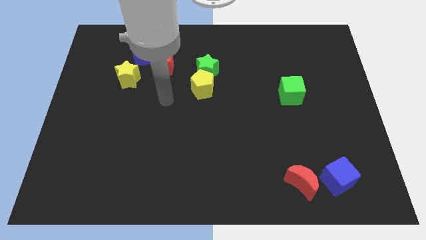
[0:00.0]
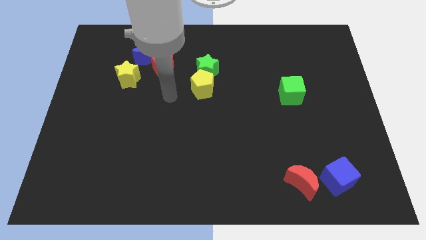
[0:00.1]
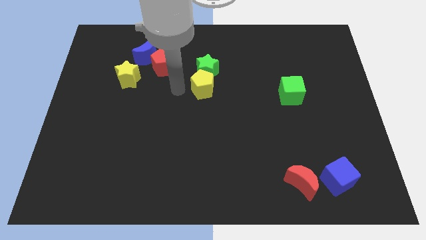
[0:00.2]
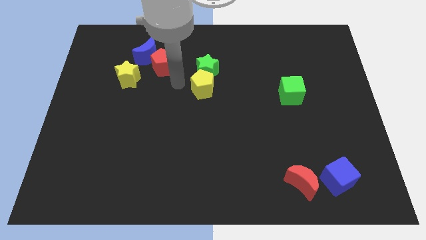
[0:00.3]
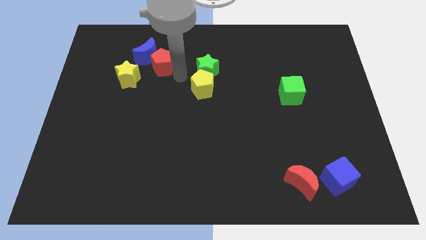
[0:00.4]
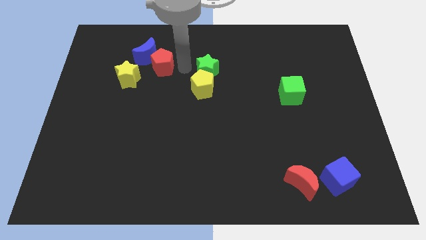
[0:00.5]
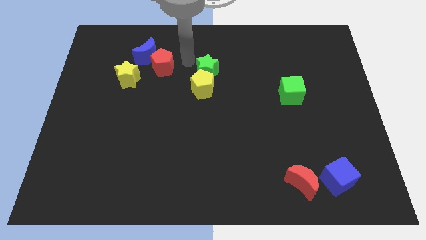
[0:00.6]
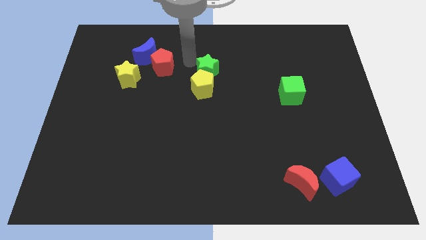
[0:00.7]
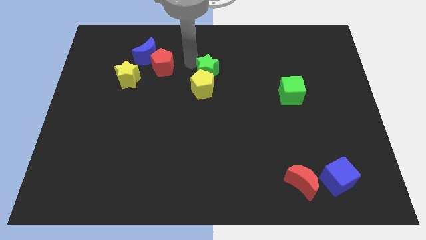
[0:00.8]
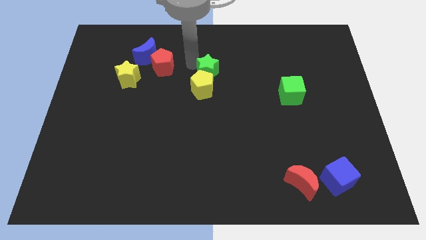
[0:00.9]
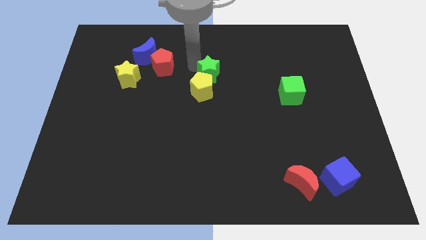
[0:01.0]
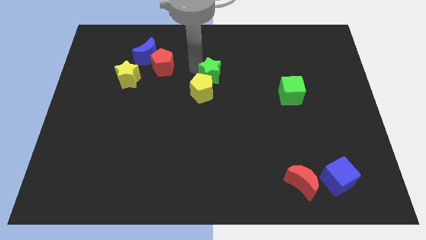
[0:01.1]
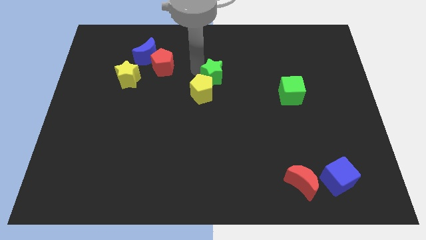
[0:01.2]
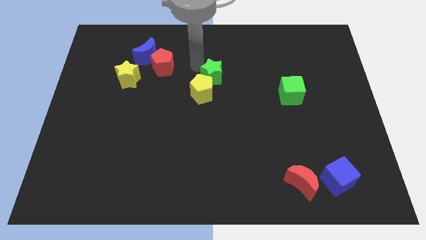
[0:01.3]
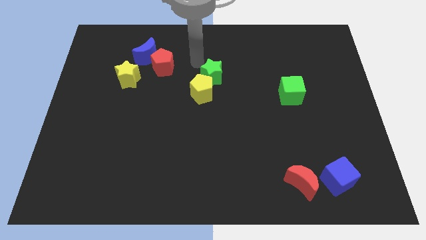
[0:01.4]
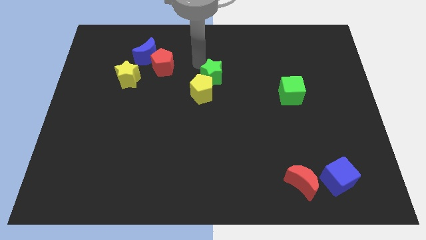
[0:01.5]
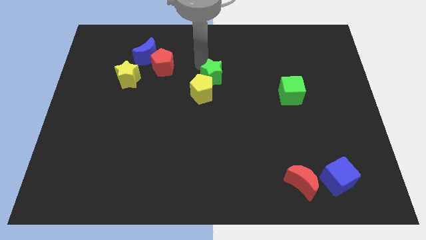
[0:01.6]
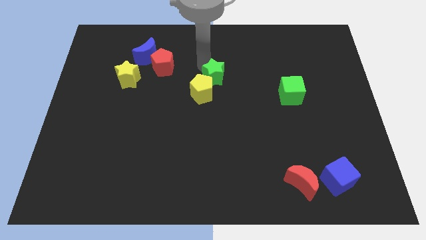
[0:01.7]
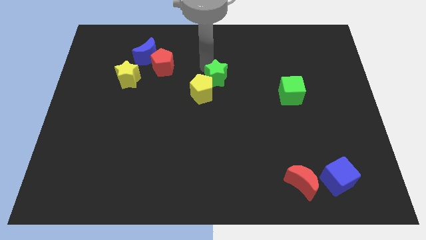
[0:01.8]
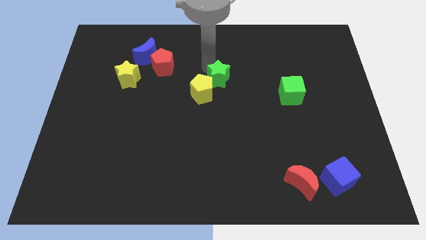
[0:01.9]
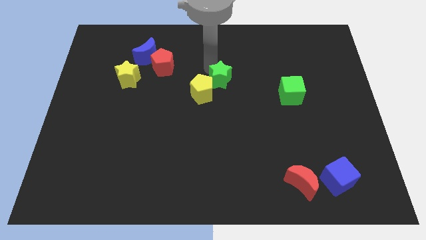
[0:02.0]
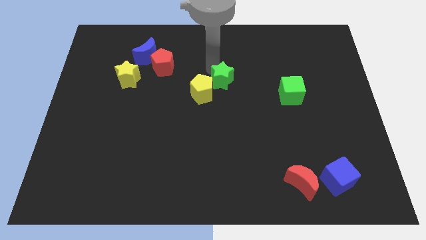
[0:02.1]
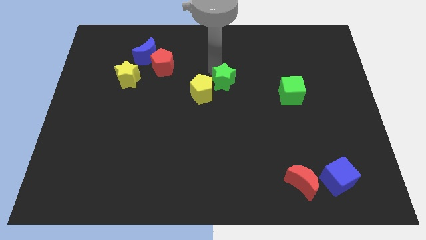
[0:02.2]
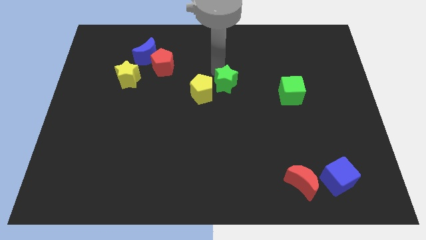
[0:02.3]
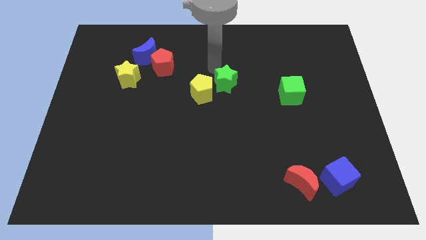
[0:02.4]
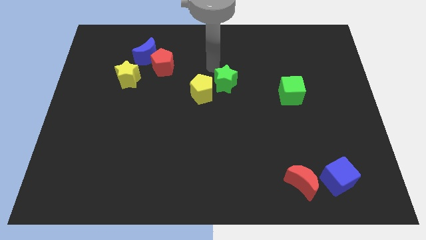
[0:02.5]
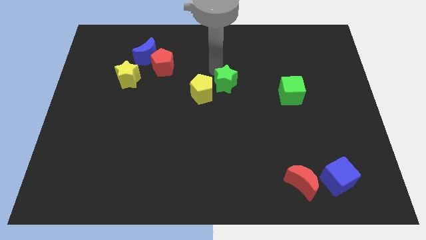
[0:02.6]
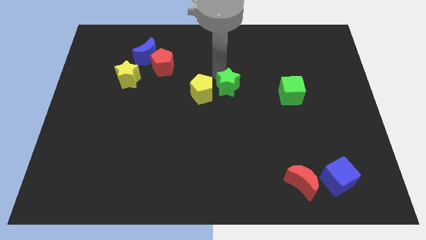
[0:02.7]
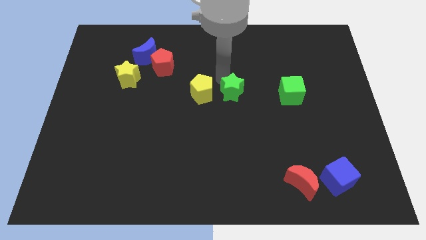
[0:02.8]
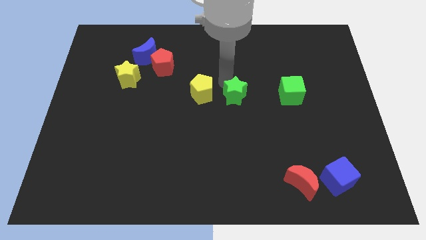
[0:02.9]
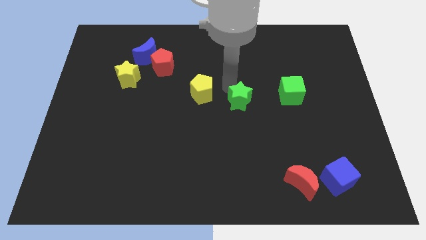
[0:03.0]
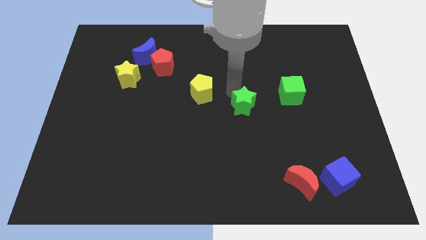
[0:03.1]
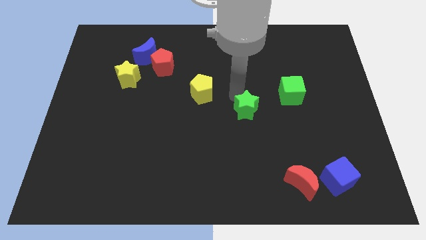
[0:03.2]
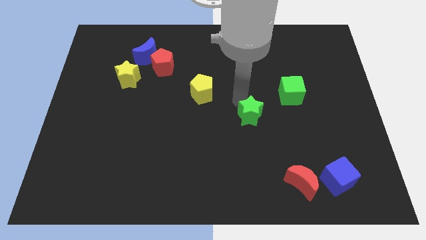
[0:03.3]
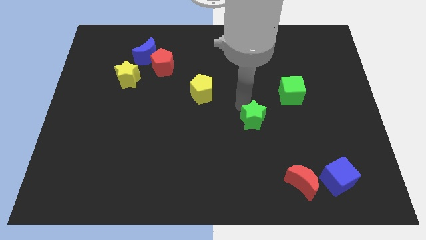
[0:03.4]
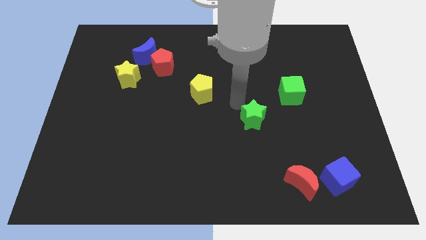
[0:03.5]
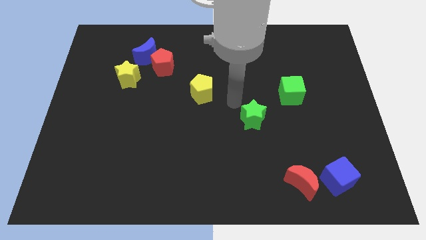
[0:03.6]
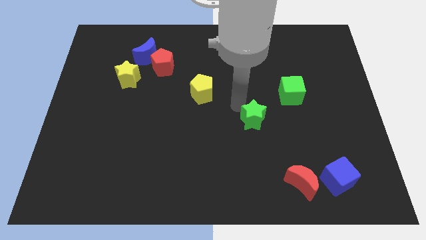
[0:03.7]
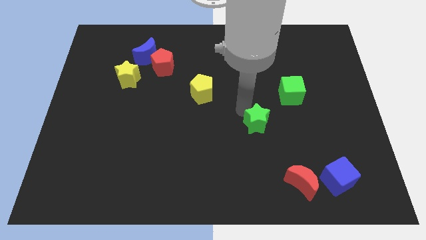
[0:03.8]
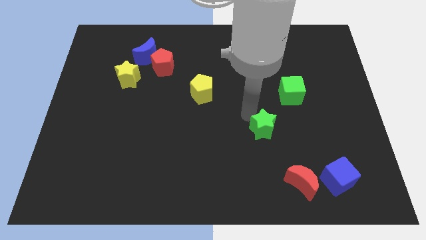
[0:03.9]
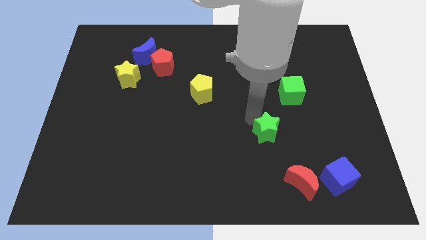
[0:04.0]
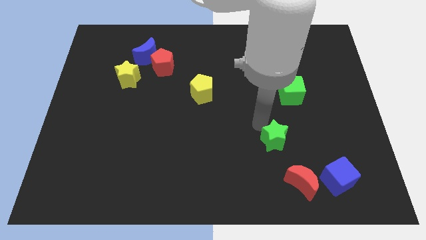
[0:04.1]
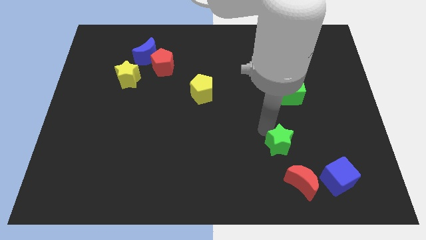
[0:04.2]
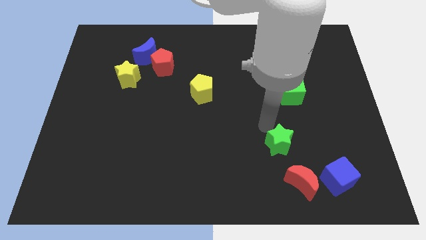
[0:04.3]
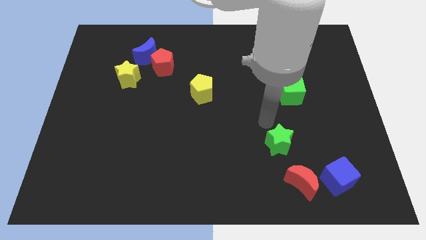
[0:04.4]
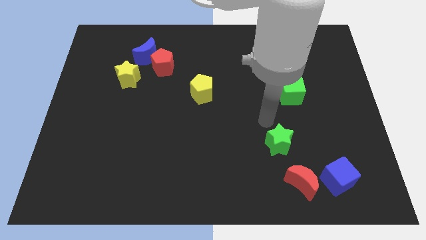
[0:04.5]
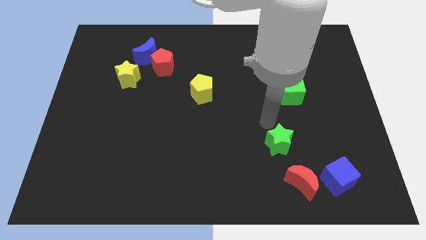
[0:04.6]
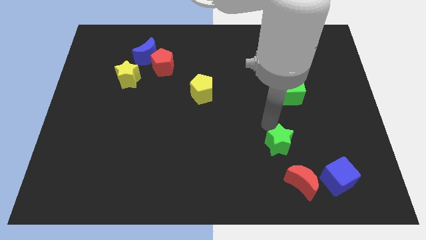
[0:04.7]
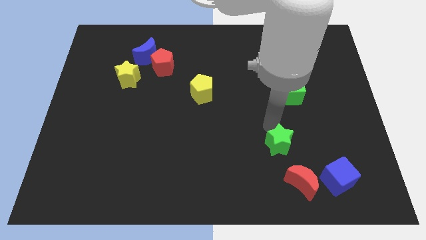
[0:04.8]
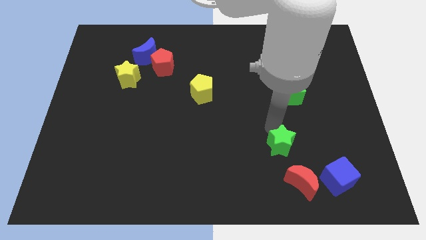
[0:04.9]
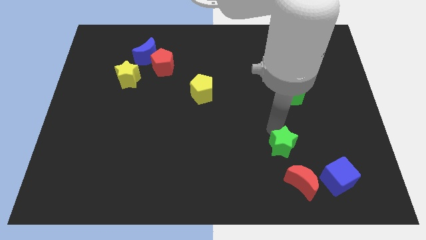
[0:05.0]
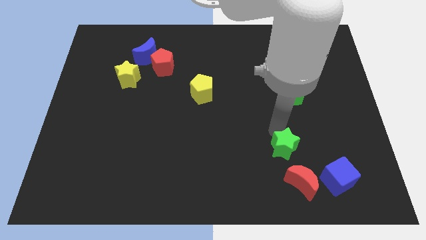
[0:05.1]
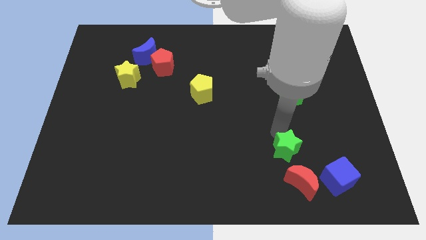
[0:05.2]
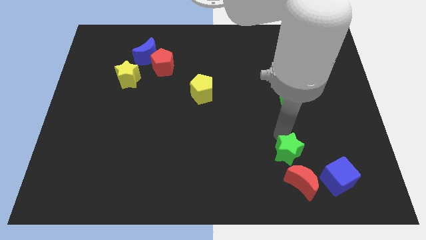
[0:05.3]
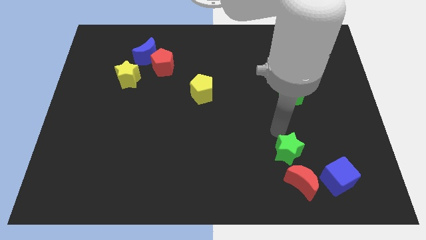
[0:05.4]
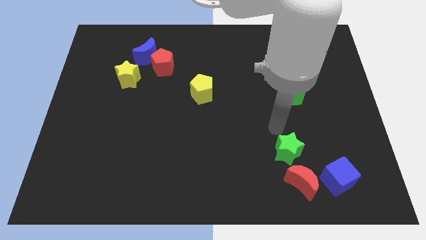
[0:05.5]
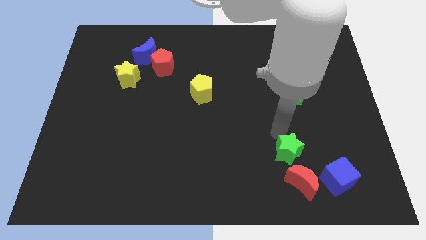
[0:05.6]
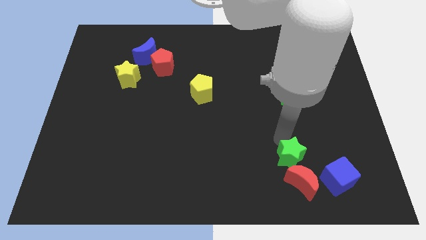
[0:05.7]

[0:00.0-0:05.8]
put the green star close to the red moon

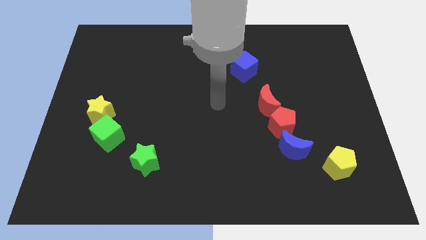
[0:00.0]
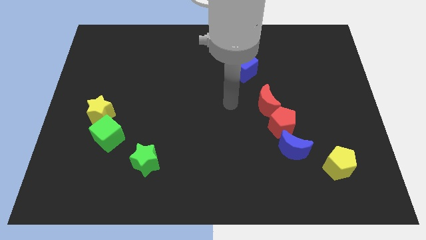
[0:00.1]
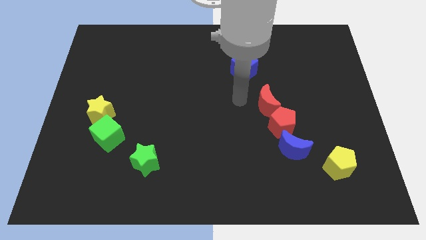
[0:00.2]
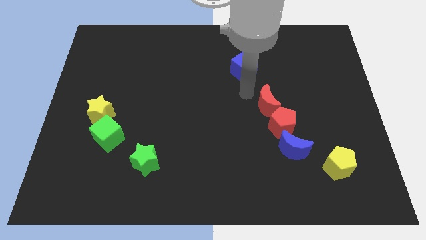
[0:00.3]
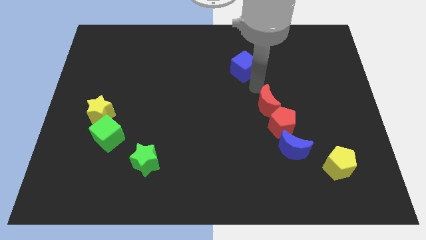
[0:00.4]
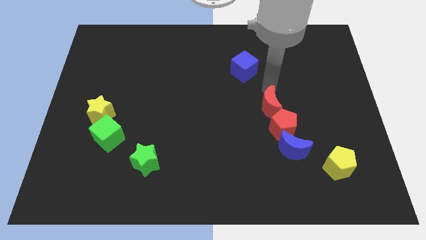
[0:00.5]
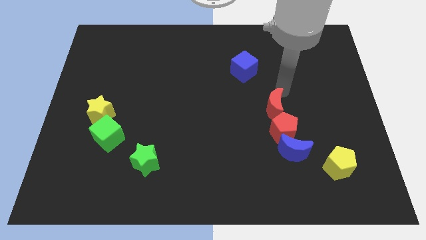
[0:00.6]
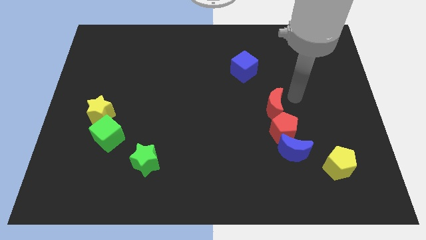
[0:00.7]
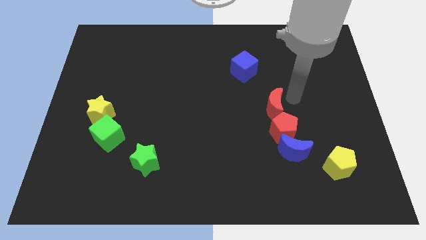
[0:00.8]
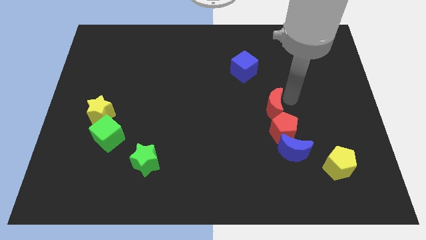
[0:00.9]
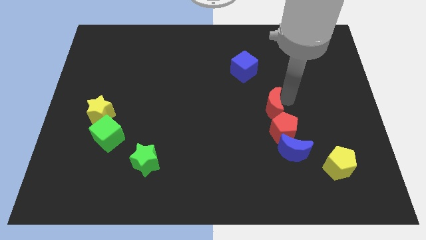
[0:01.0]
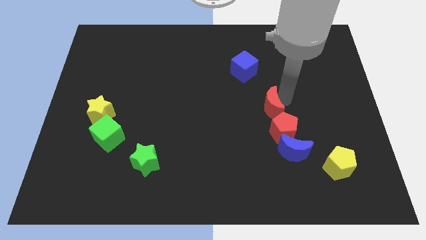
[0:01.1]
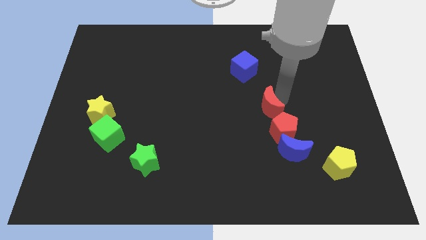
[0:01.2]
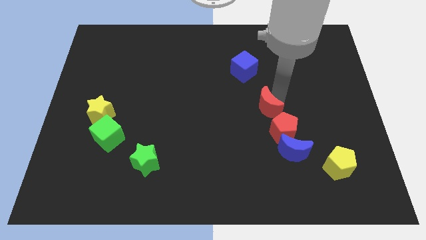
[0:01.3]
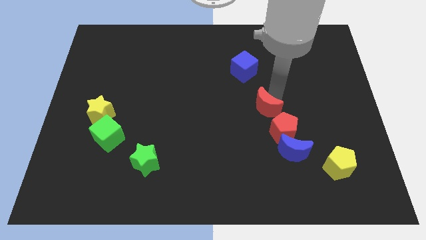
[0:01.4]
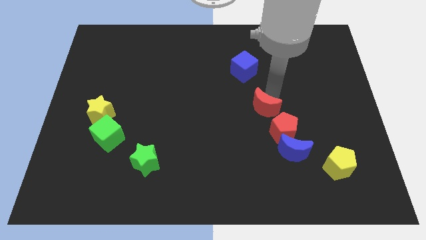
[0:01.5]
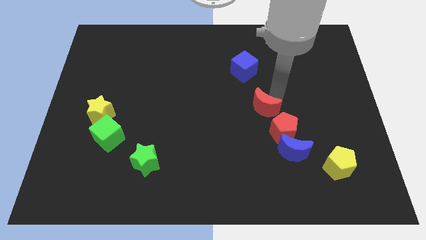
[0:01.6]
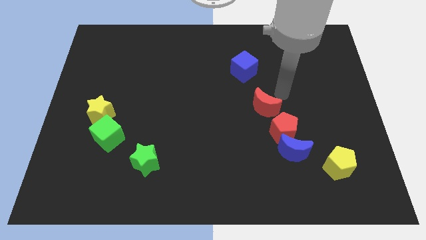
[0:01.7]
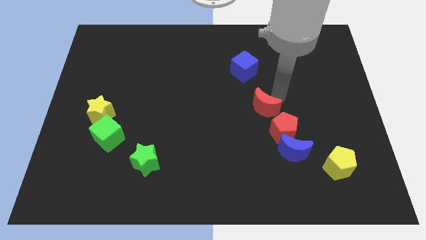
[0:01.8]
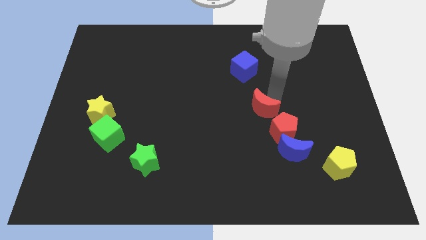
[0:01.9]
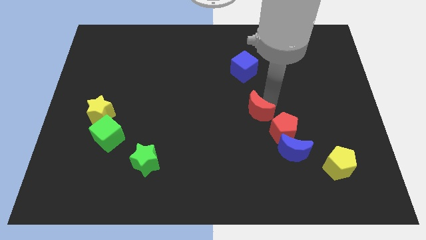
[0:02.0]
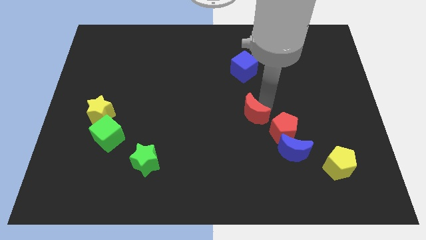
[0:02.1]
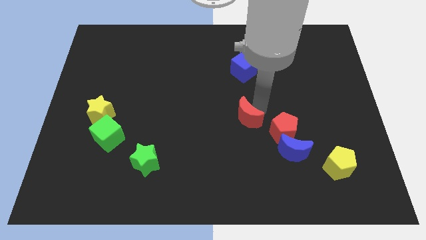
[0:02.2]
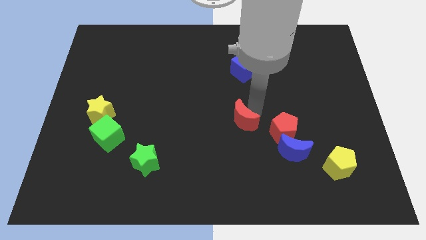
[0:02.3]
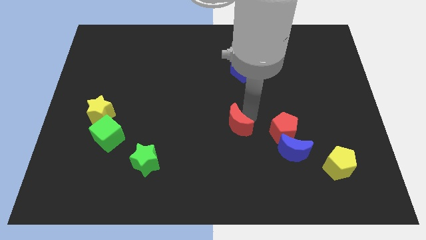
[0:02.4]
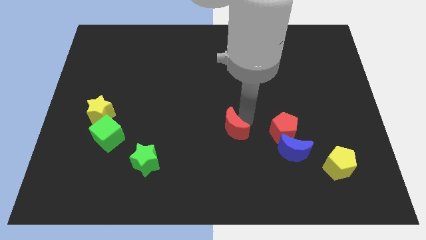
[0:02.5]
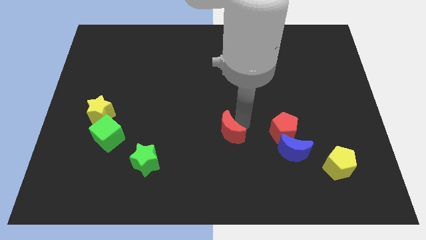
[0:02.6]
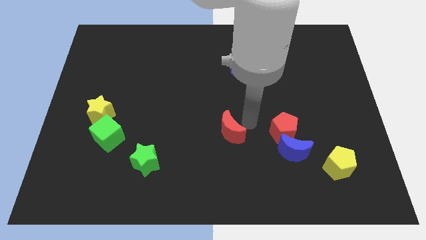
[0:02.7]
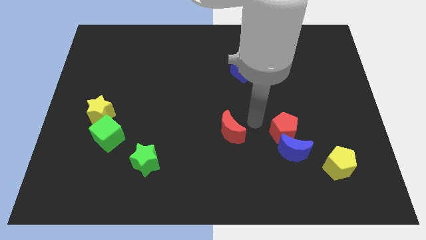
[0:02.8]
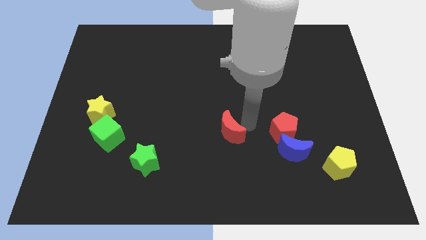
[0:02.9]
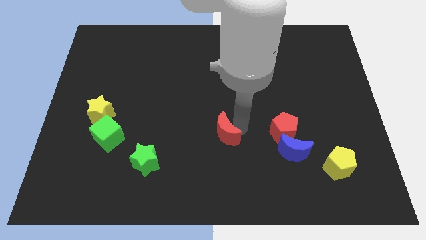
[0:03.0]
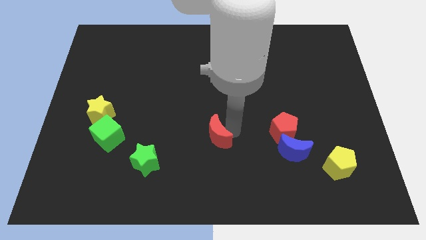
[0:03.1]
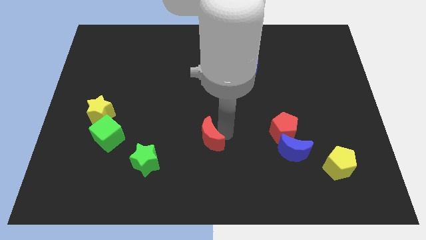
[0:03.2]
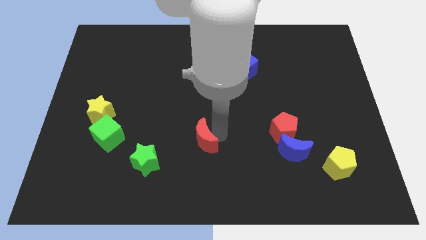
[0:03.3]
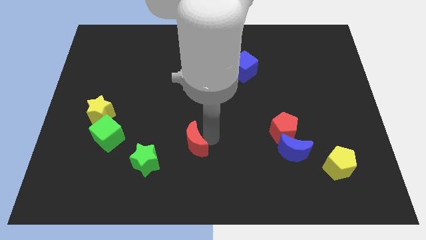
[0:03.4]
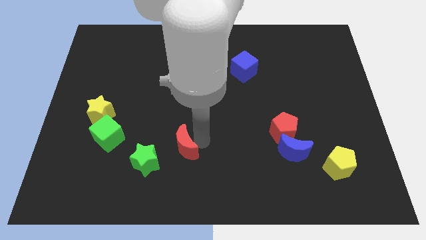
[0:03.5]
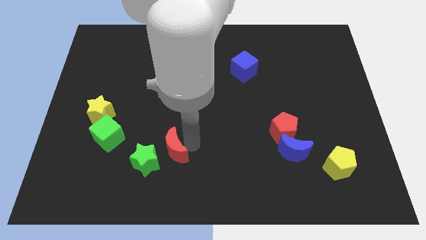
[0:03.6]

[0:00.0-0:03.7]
push the red moon next to the green star
